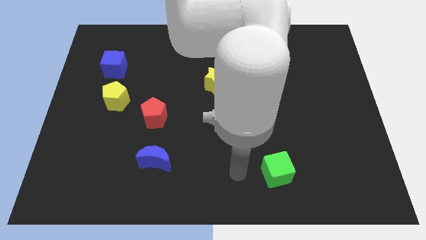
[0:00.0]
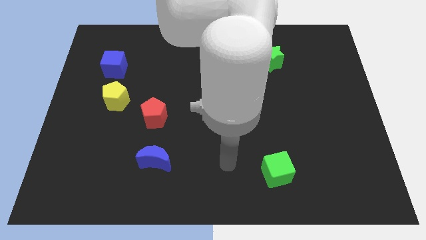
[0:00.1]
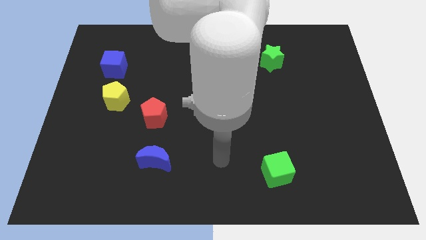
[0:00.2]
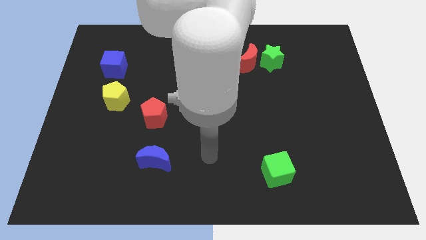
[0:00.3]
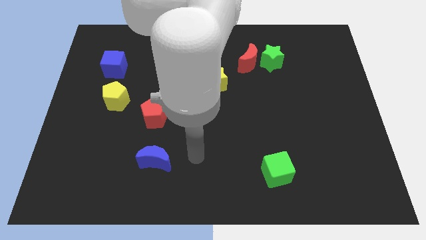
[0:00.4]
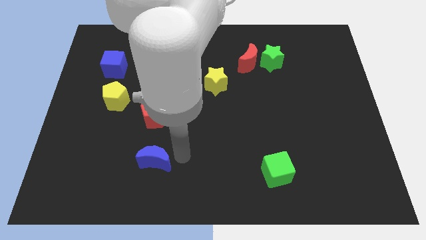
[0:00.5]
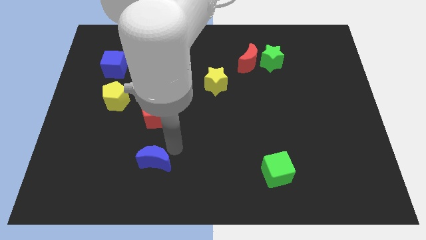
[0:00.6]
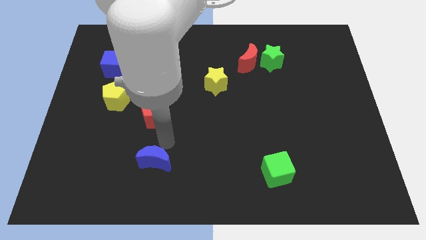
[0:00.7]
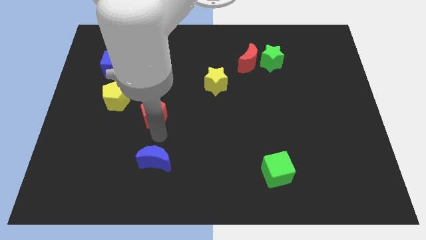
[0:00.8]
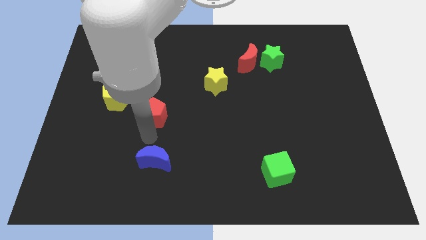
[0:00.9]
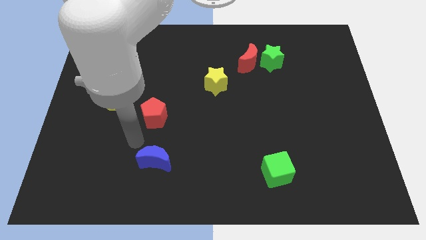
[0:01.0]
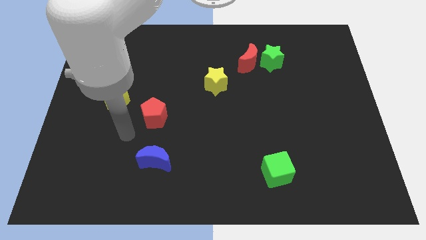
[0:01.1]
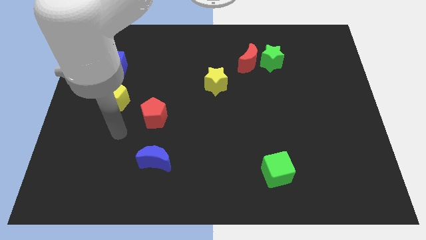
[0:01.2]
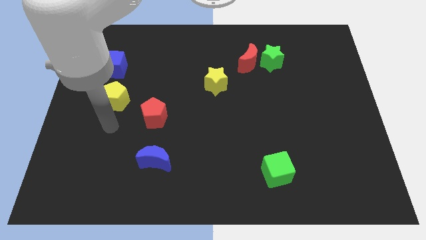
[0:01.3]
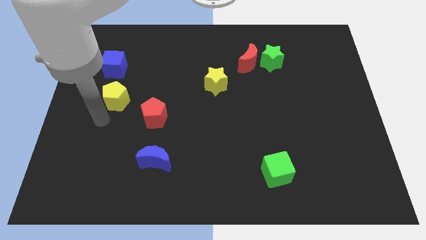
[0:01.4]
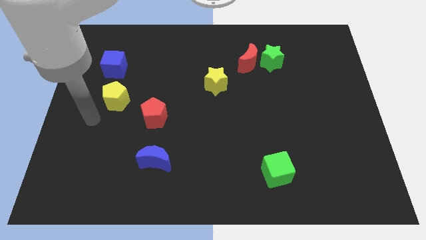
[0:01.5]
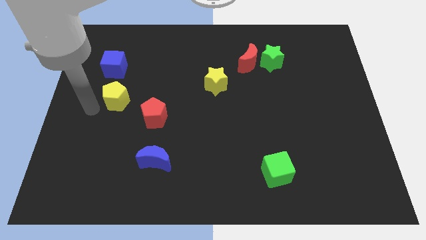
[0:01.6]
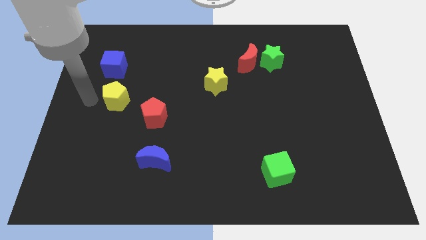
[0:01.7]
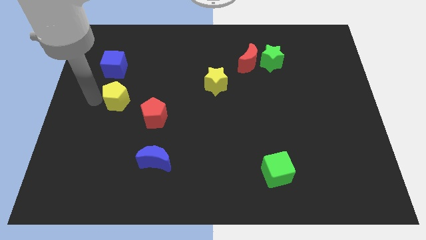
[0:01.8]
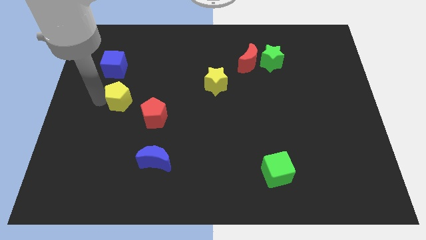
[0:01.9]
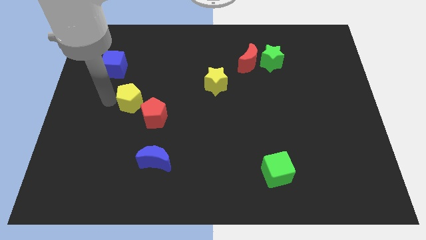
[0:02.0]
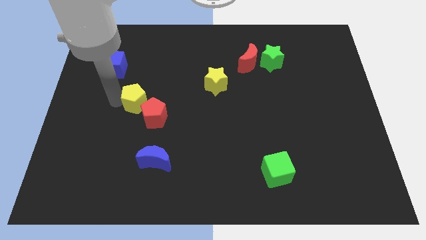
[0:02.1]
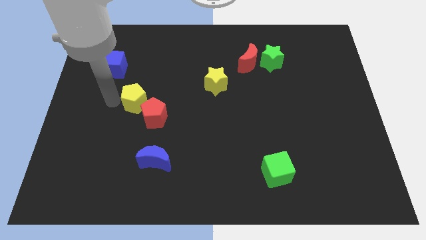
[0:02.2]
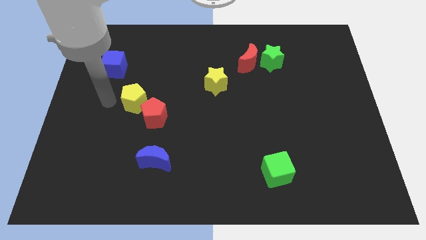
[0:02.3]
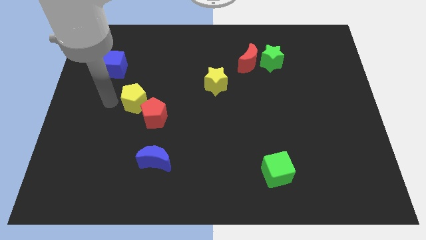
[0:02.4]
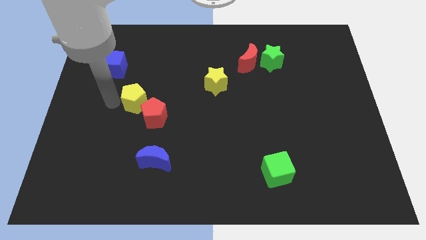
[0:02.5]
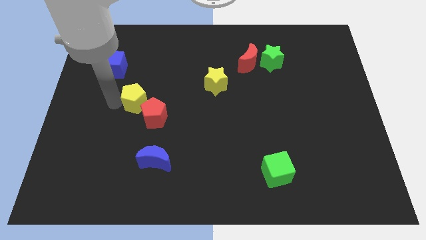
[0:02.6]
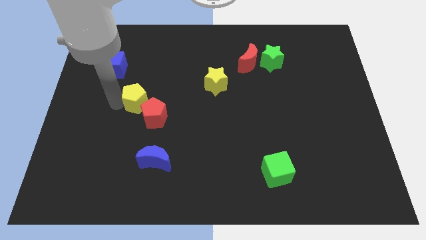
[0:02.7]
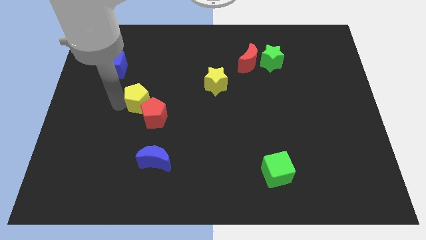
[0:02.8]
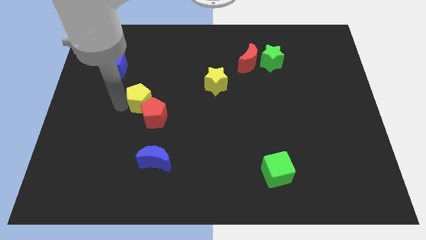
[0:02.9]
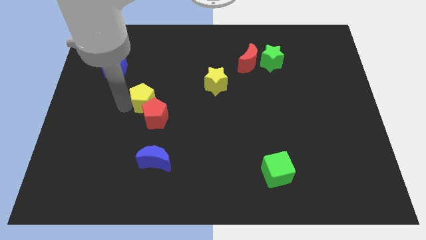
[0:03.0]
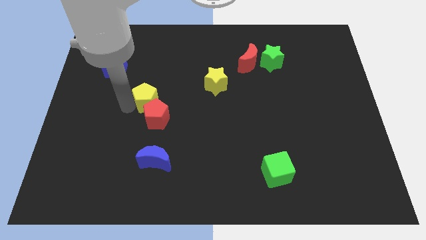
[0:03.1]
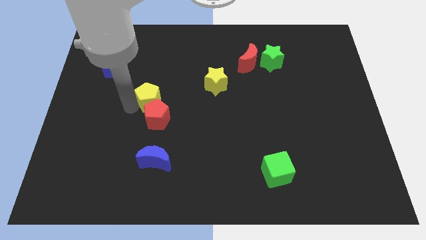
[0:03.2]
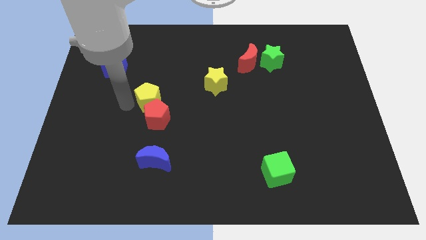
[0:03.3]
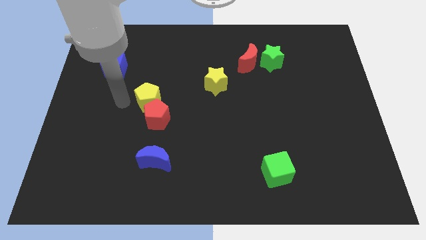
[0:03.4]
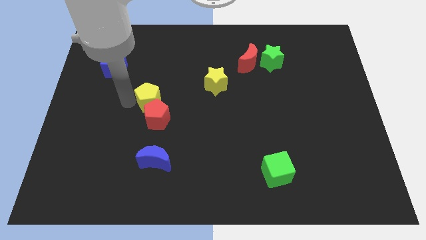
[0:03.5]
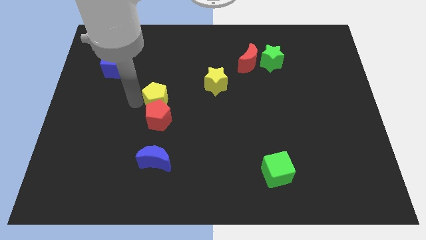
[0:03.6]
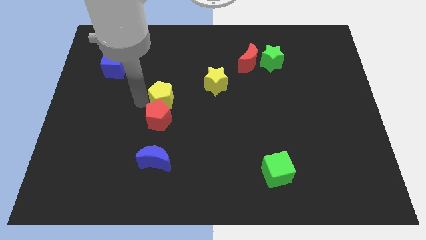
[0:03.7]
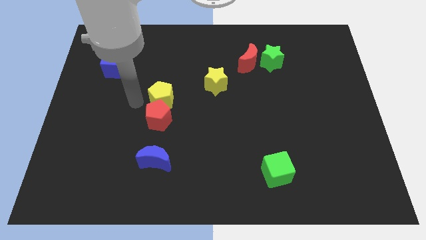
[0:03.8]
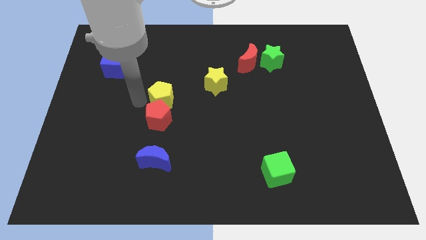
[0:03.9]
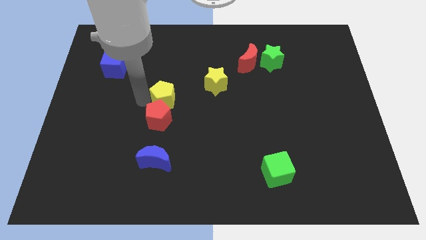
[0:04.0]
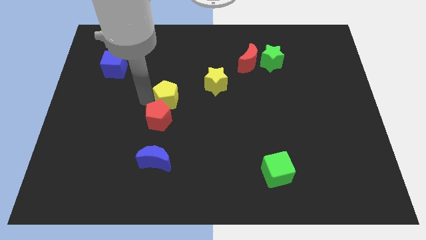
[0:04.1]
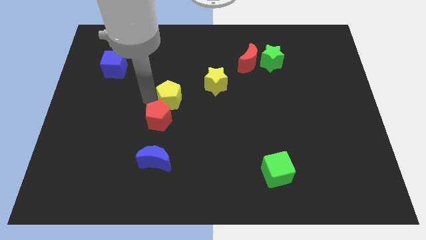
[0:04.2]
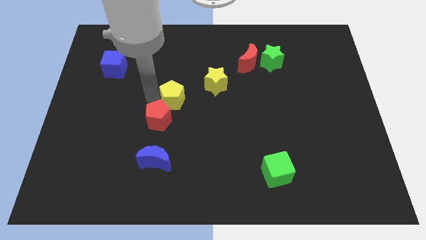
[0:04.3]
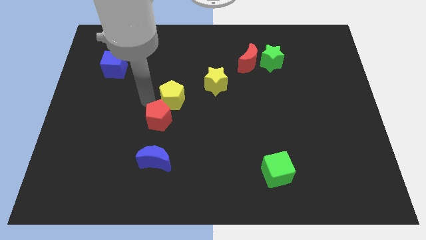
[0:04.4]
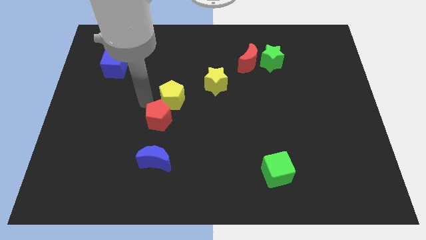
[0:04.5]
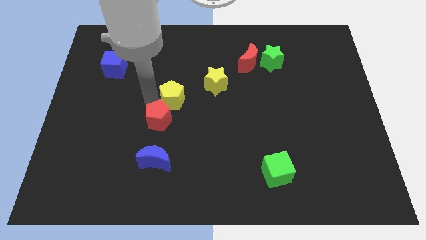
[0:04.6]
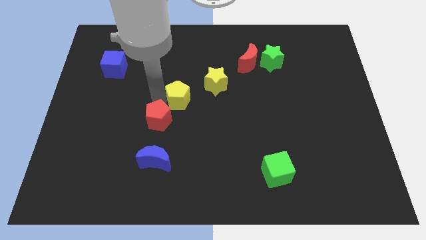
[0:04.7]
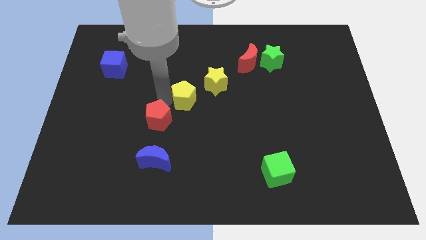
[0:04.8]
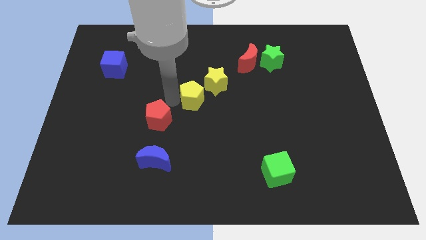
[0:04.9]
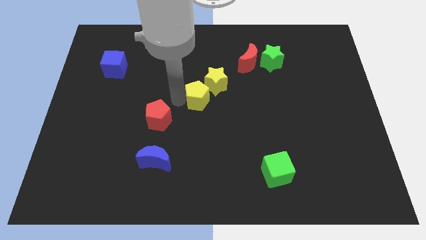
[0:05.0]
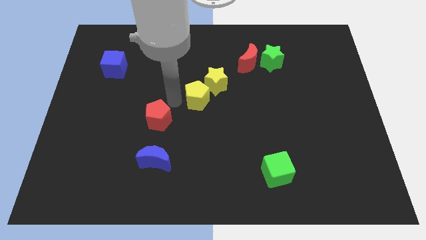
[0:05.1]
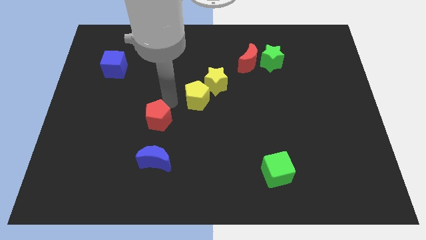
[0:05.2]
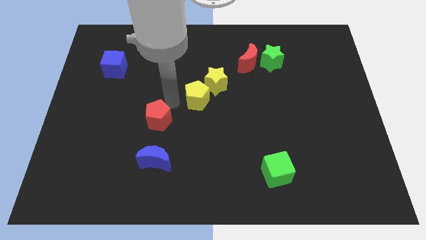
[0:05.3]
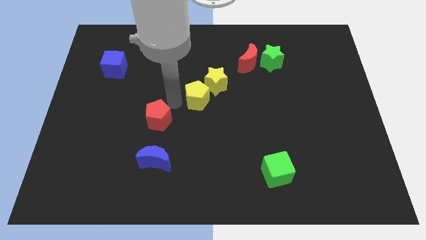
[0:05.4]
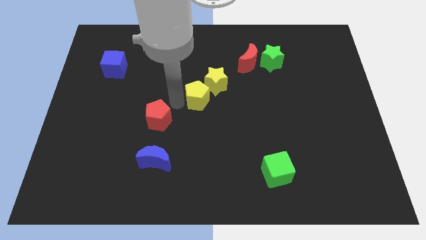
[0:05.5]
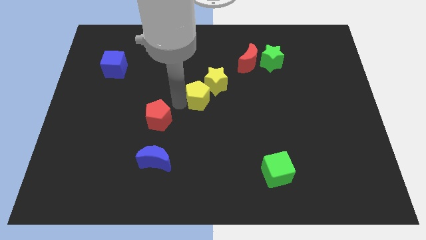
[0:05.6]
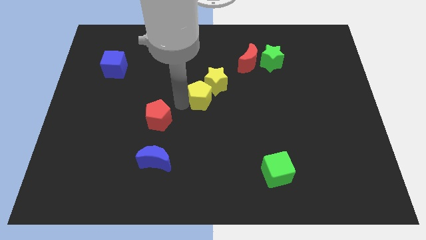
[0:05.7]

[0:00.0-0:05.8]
move the yellow pentagon to the right

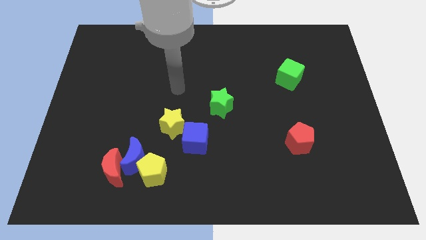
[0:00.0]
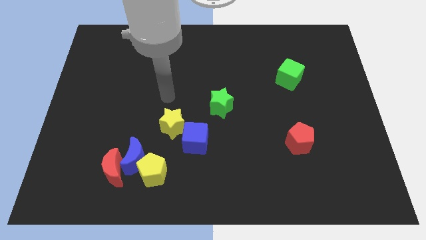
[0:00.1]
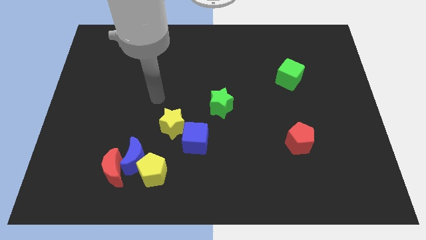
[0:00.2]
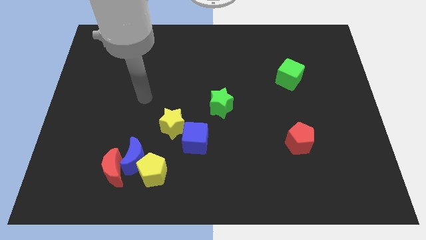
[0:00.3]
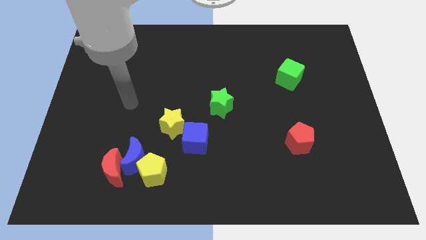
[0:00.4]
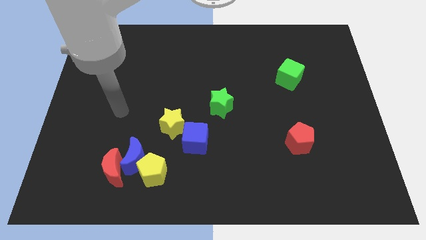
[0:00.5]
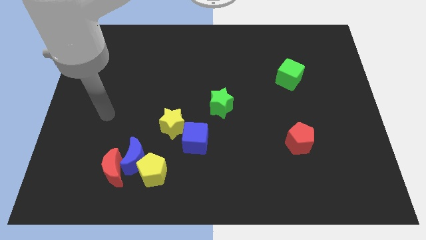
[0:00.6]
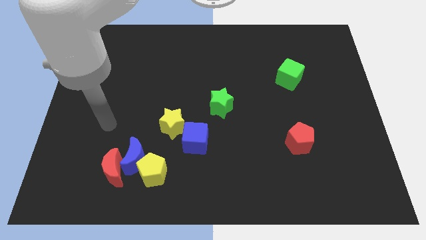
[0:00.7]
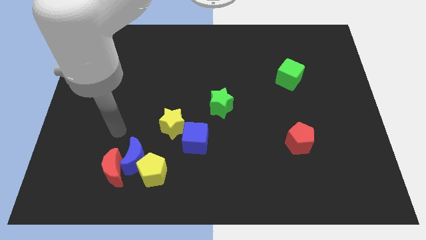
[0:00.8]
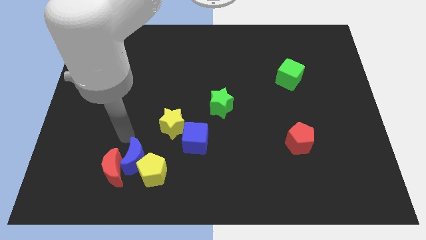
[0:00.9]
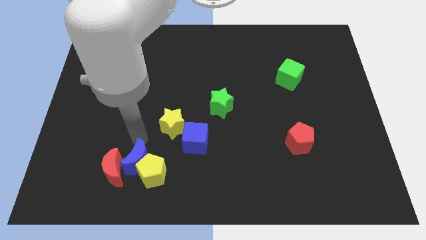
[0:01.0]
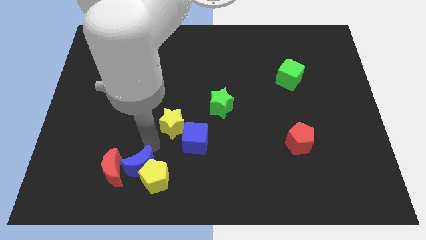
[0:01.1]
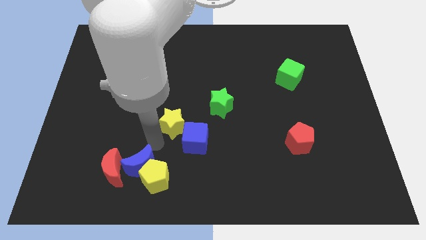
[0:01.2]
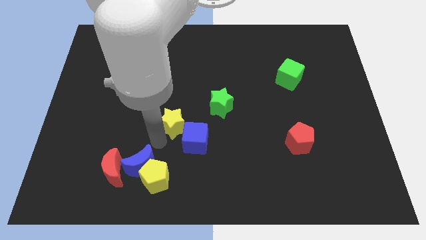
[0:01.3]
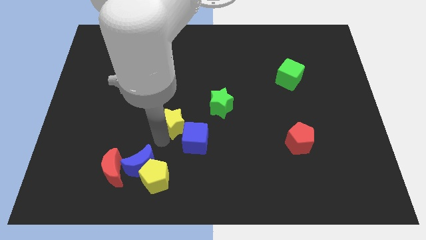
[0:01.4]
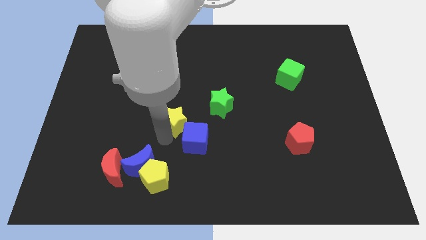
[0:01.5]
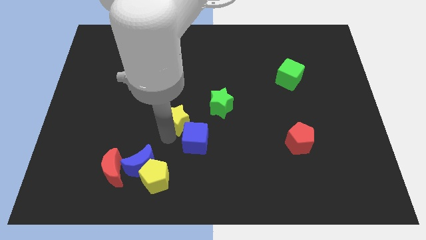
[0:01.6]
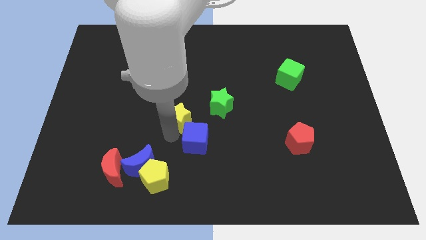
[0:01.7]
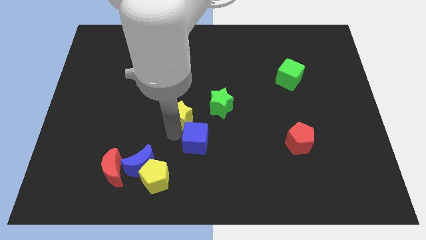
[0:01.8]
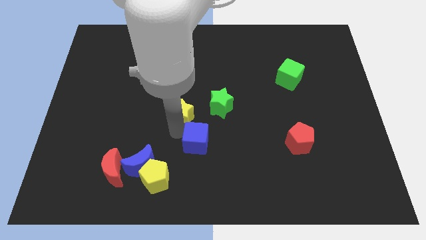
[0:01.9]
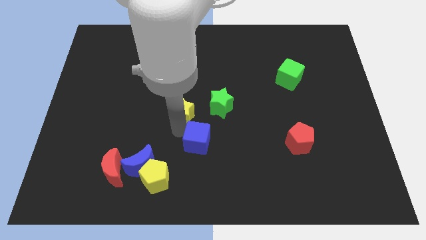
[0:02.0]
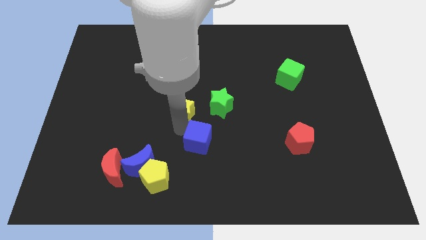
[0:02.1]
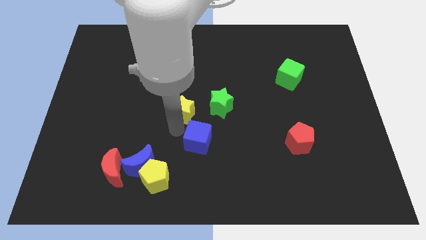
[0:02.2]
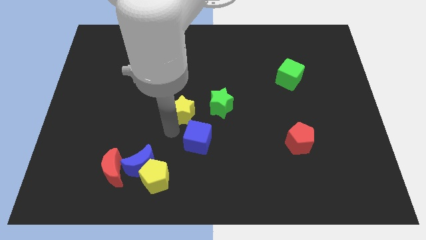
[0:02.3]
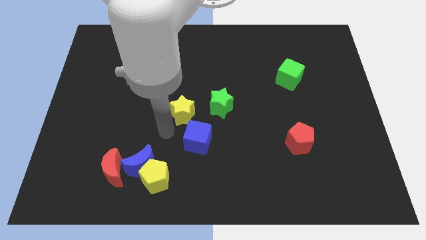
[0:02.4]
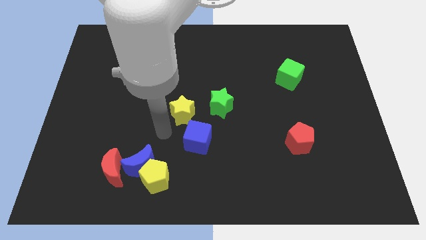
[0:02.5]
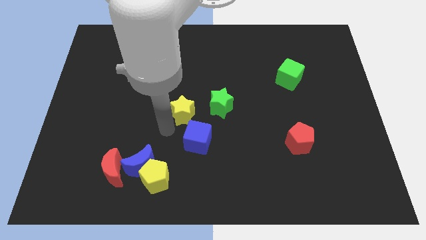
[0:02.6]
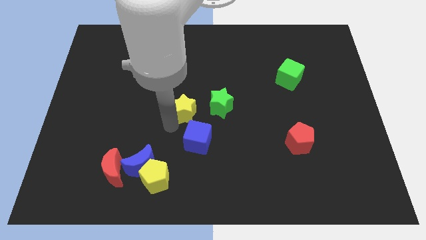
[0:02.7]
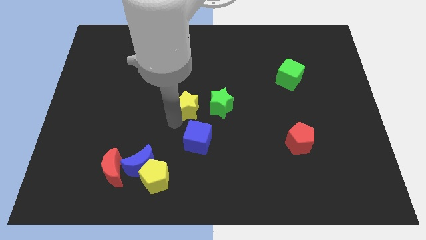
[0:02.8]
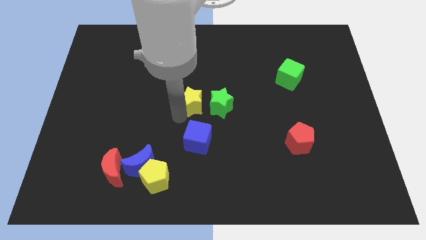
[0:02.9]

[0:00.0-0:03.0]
slide the yellow star diagonally up and to the right somewhat
